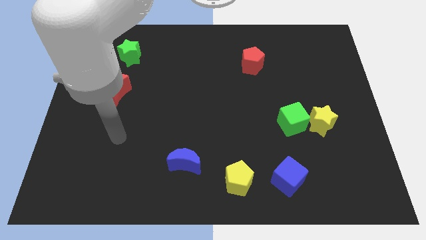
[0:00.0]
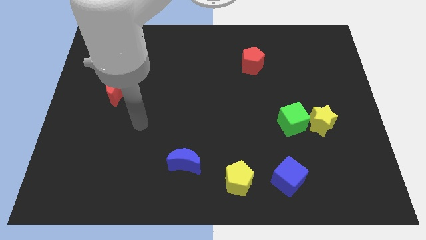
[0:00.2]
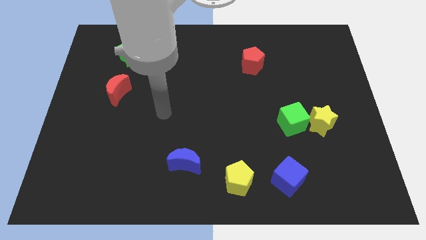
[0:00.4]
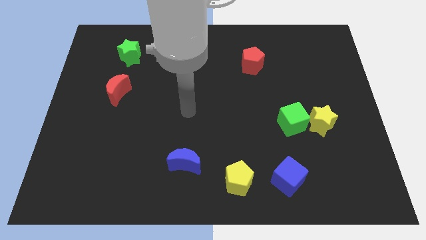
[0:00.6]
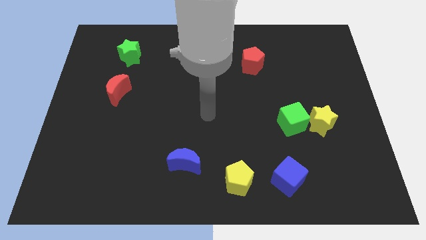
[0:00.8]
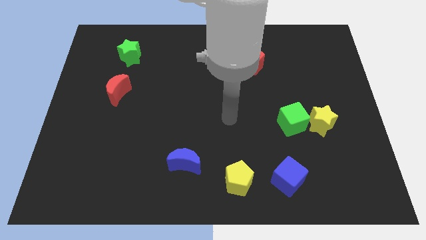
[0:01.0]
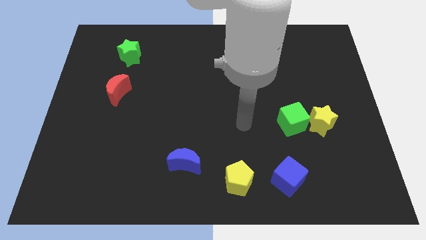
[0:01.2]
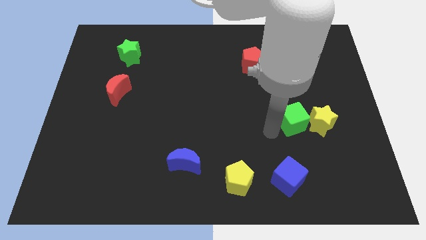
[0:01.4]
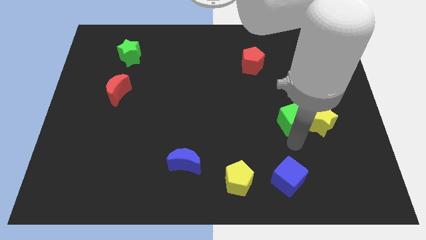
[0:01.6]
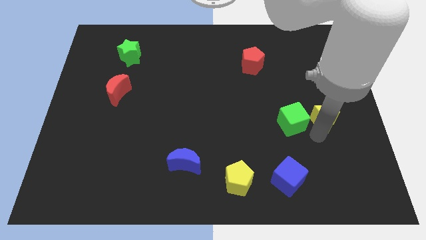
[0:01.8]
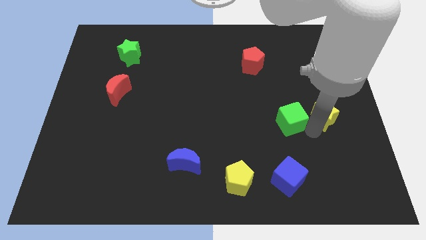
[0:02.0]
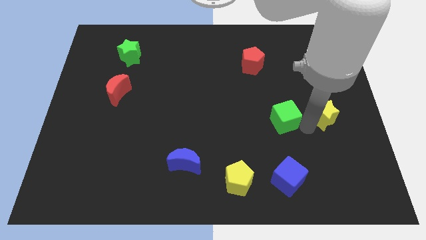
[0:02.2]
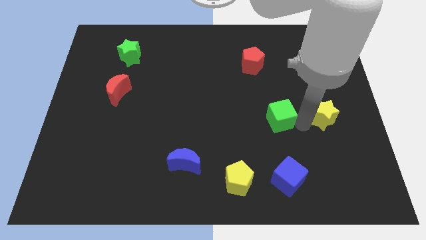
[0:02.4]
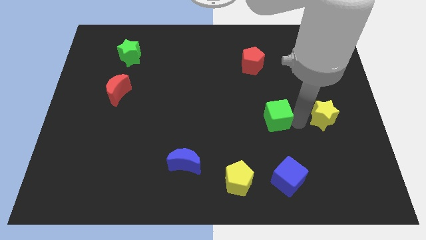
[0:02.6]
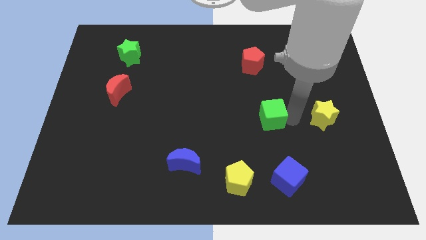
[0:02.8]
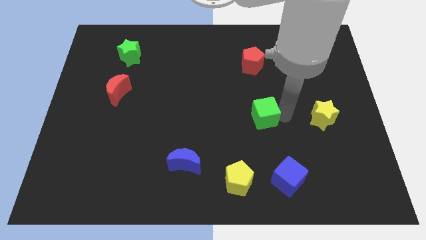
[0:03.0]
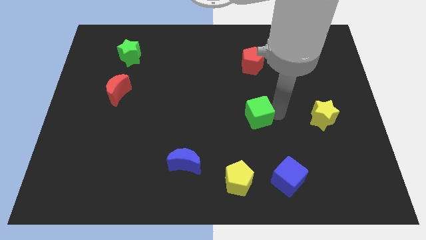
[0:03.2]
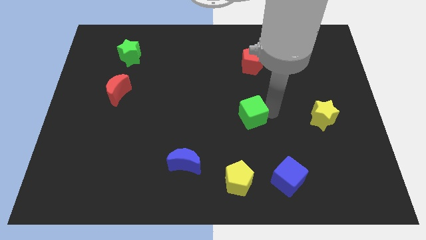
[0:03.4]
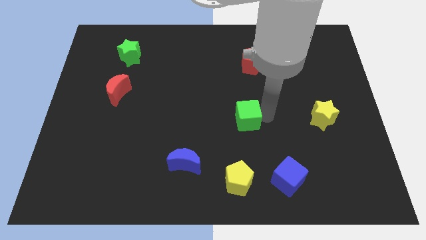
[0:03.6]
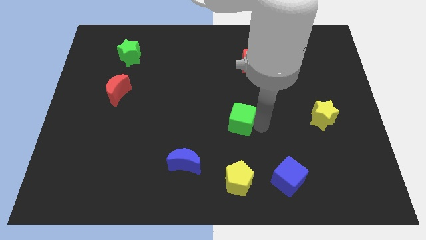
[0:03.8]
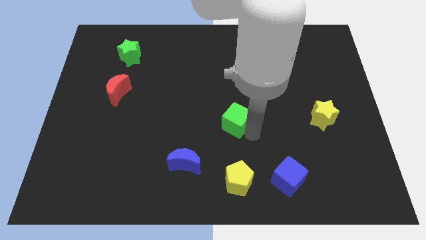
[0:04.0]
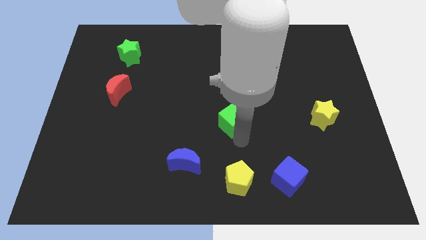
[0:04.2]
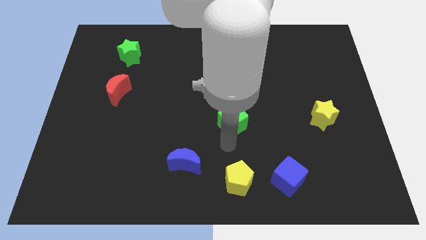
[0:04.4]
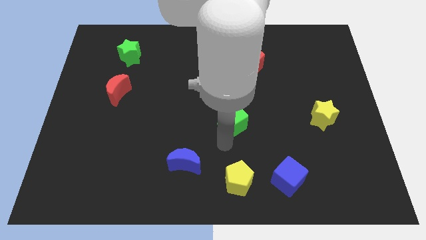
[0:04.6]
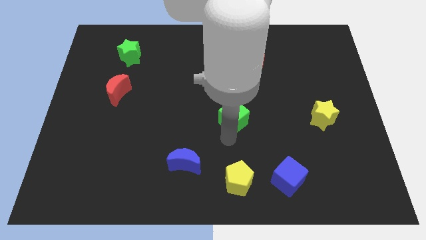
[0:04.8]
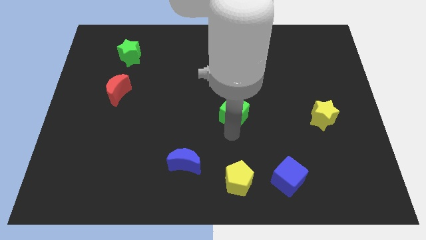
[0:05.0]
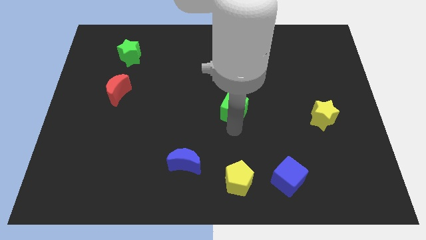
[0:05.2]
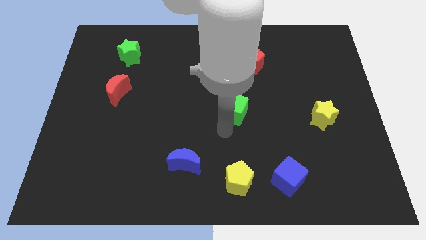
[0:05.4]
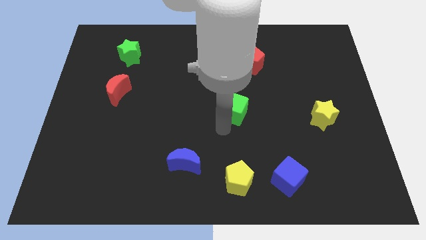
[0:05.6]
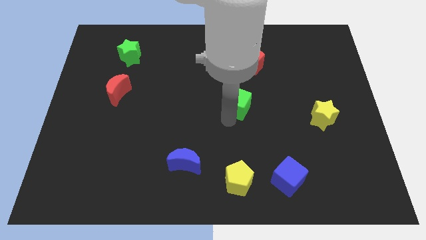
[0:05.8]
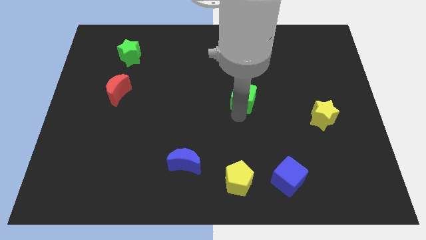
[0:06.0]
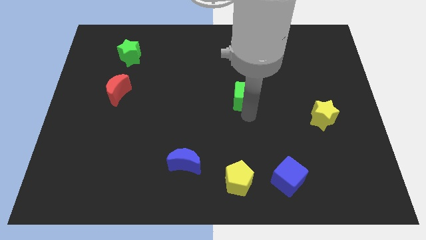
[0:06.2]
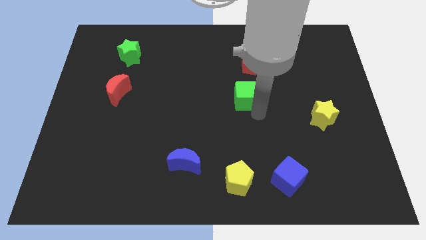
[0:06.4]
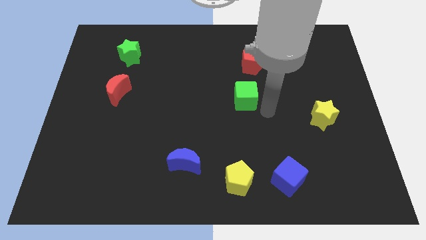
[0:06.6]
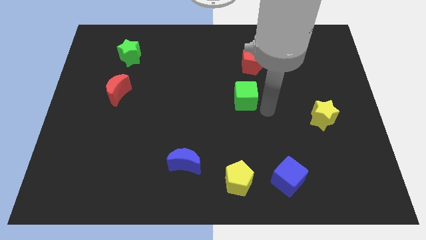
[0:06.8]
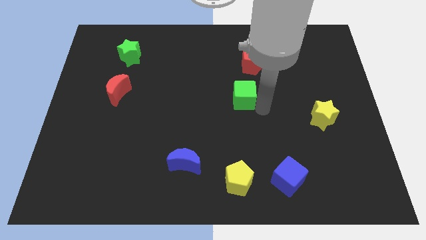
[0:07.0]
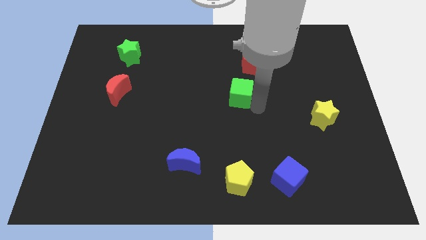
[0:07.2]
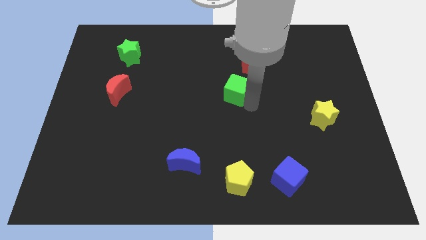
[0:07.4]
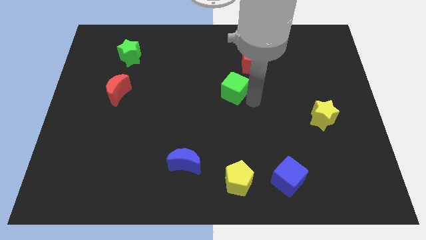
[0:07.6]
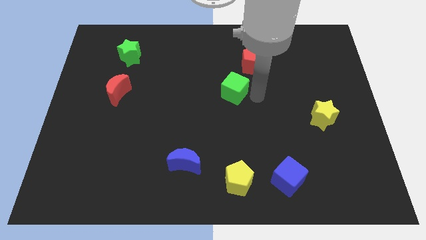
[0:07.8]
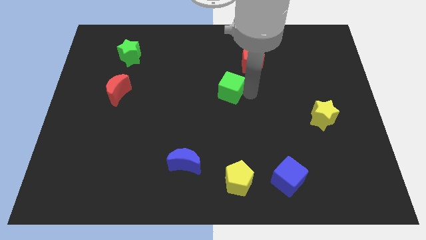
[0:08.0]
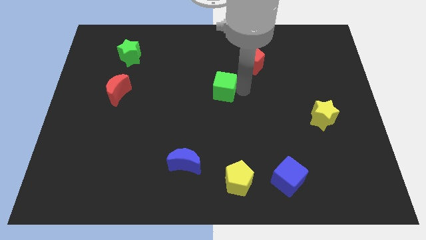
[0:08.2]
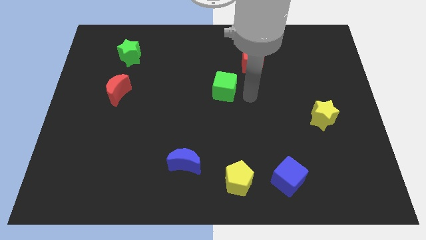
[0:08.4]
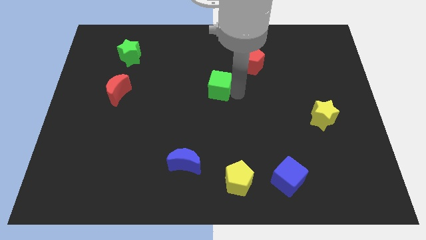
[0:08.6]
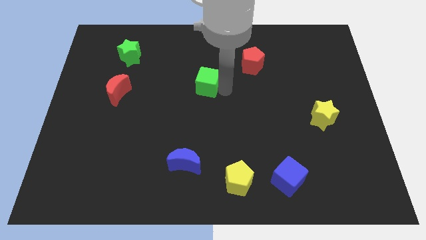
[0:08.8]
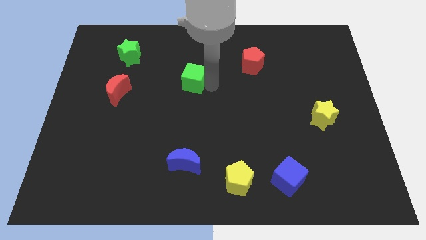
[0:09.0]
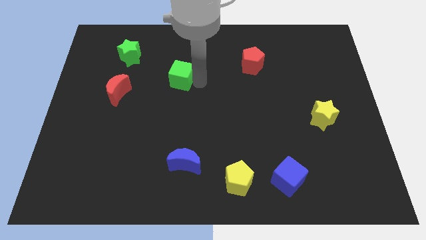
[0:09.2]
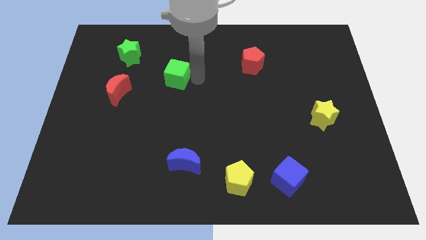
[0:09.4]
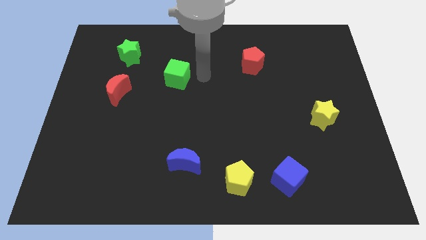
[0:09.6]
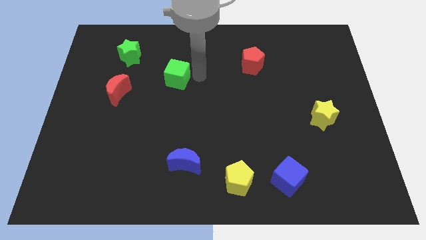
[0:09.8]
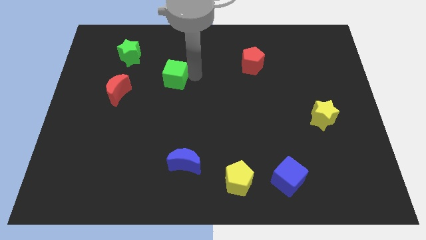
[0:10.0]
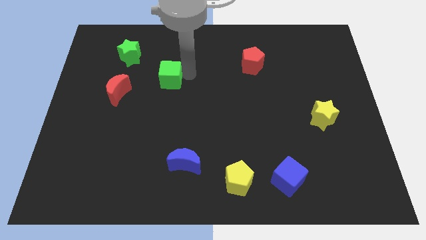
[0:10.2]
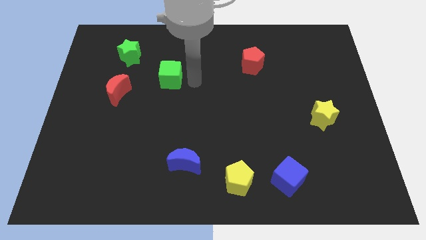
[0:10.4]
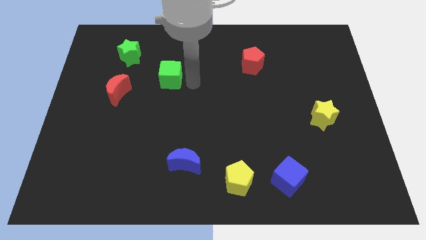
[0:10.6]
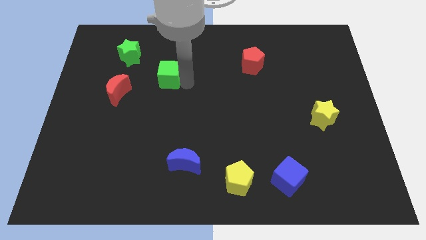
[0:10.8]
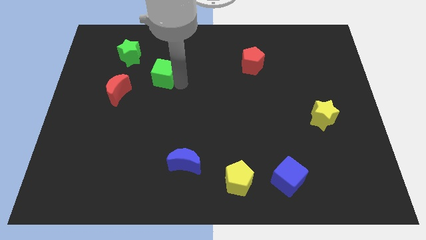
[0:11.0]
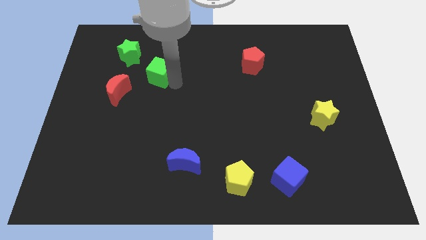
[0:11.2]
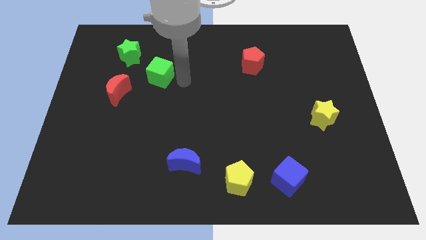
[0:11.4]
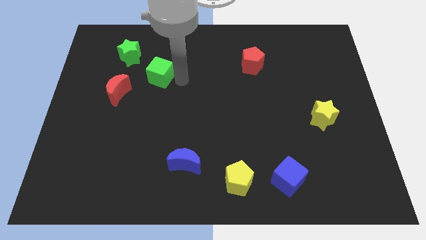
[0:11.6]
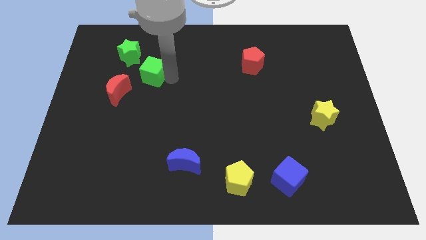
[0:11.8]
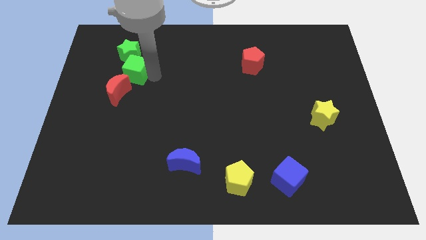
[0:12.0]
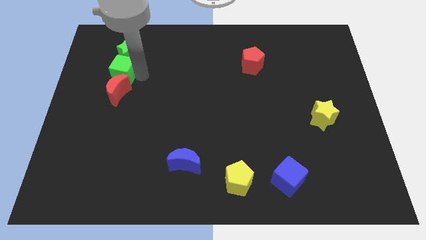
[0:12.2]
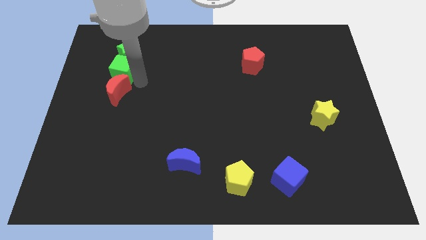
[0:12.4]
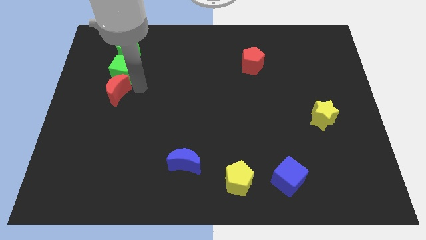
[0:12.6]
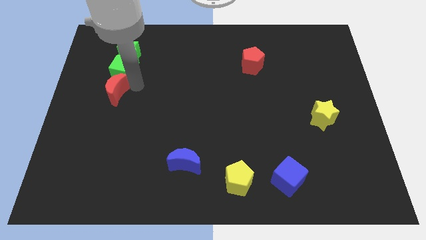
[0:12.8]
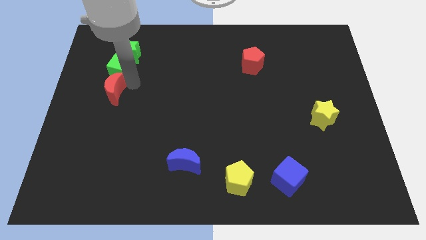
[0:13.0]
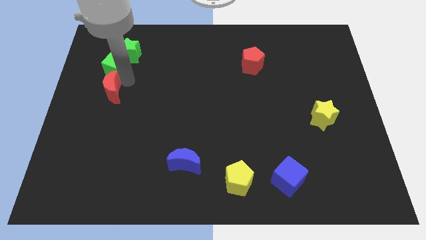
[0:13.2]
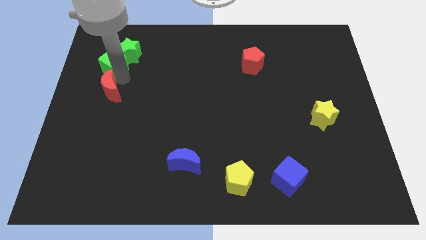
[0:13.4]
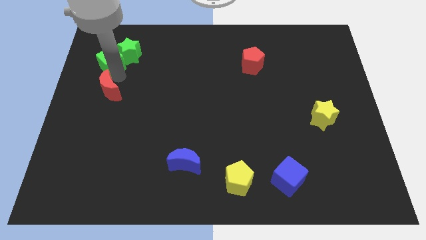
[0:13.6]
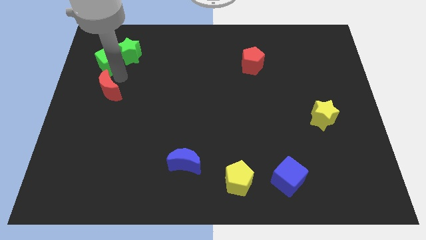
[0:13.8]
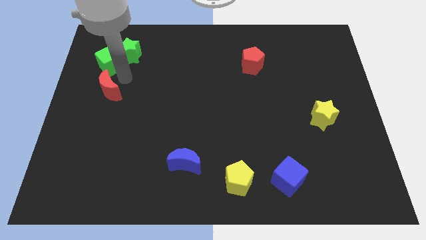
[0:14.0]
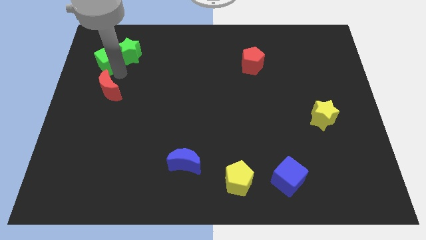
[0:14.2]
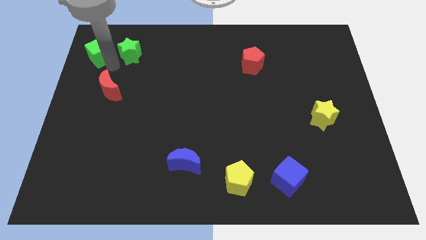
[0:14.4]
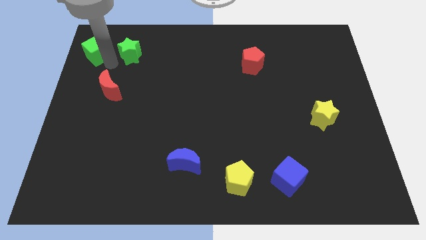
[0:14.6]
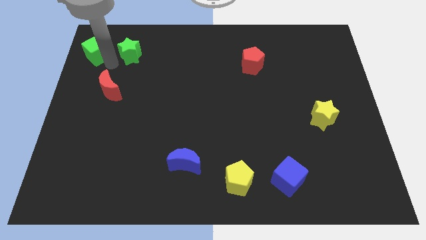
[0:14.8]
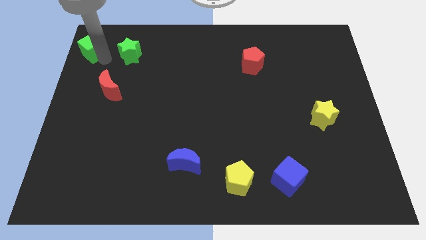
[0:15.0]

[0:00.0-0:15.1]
put the green cube to the top left

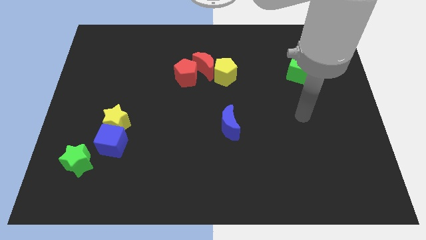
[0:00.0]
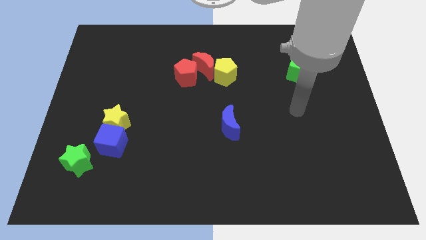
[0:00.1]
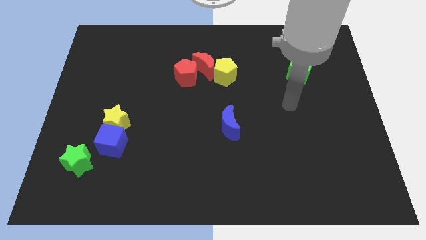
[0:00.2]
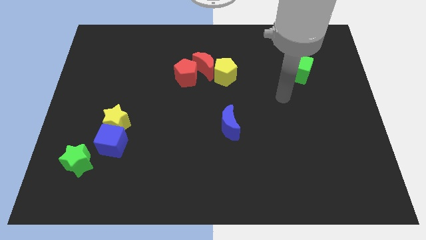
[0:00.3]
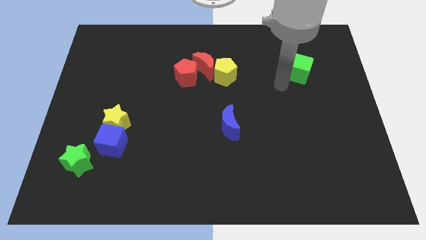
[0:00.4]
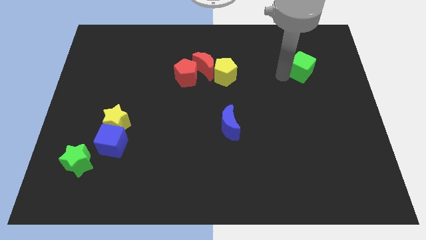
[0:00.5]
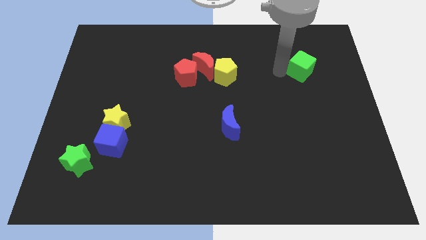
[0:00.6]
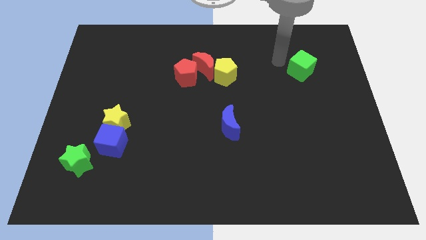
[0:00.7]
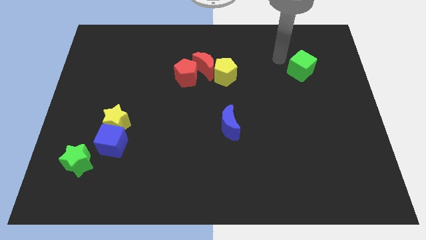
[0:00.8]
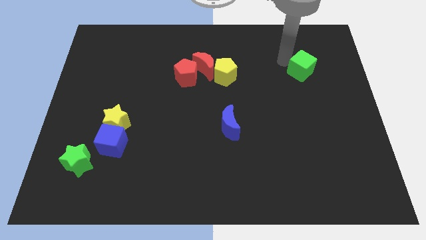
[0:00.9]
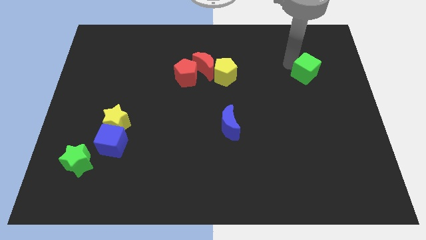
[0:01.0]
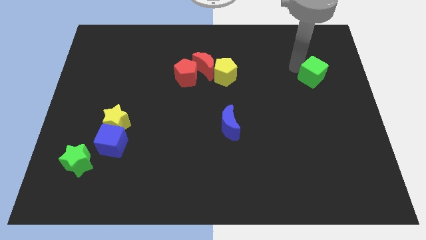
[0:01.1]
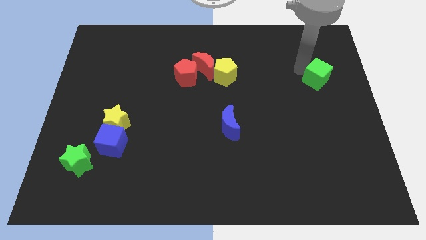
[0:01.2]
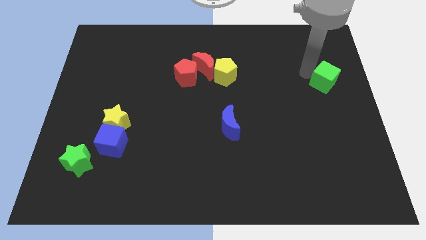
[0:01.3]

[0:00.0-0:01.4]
slide the green cube to the center right
